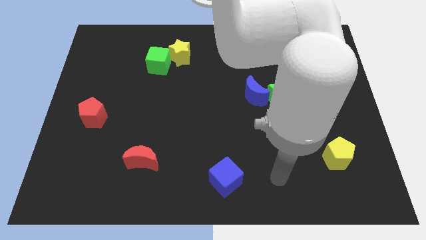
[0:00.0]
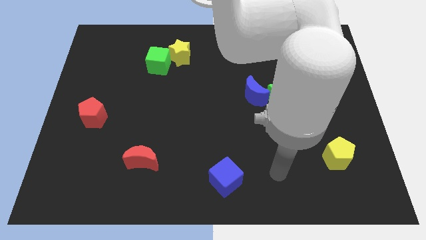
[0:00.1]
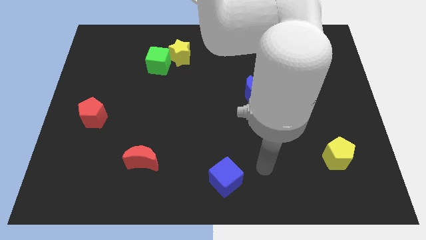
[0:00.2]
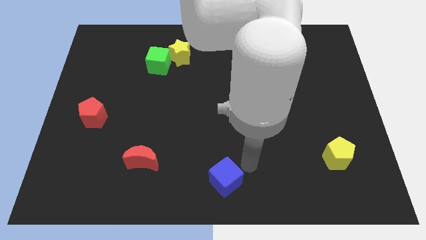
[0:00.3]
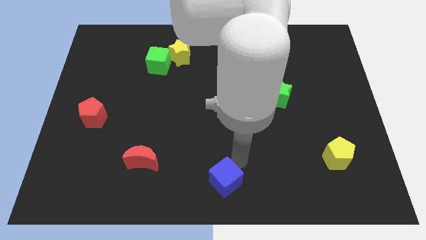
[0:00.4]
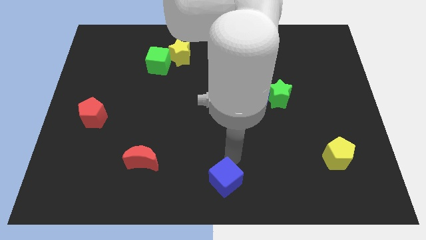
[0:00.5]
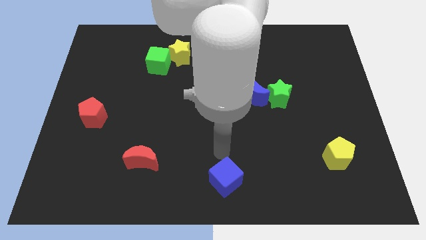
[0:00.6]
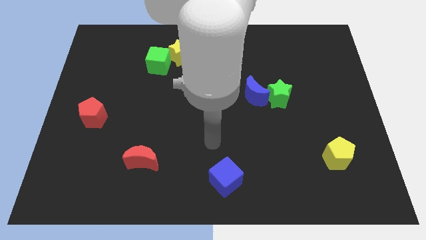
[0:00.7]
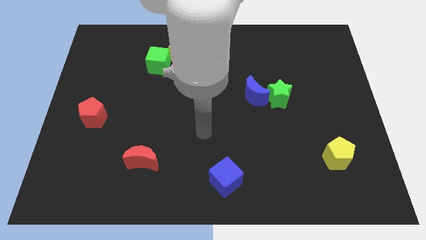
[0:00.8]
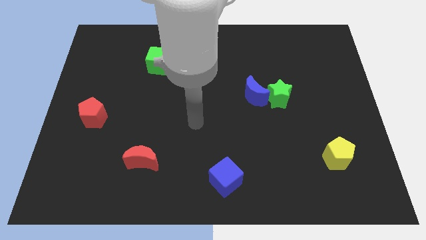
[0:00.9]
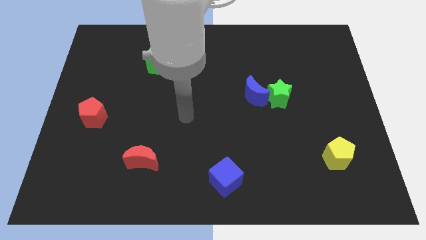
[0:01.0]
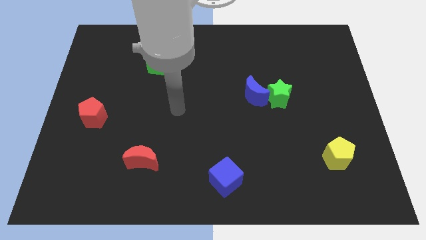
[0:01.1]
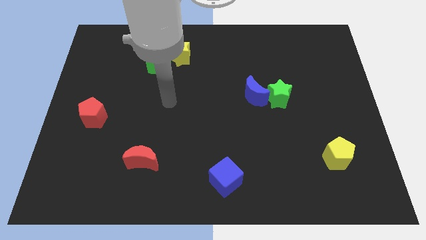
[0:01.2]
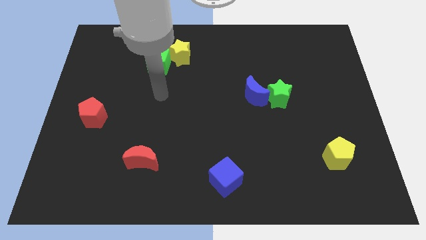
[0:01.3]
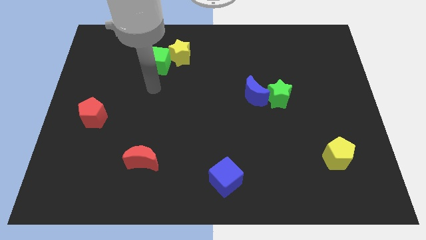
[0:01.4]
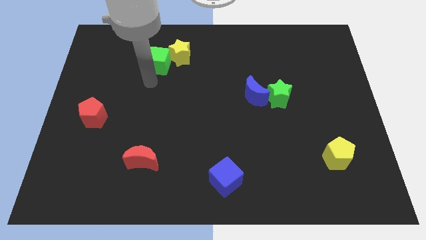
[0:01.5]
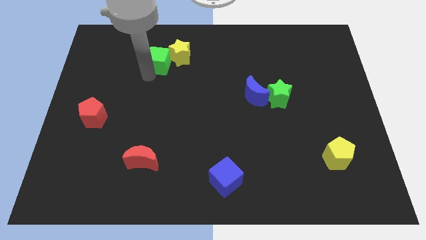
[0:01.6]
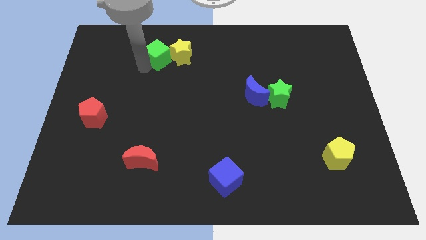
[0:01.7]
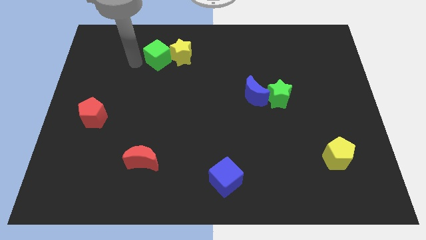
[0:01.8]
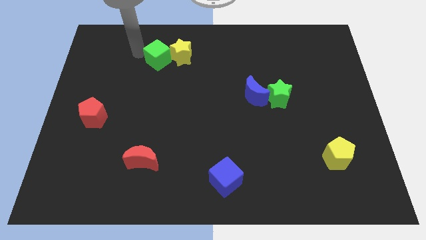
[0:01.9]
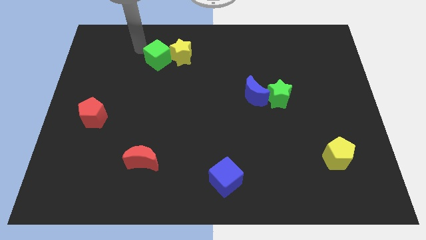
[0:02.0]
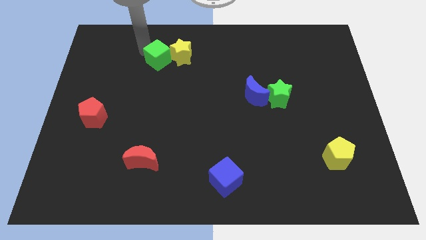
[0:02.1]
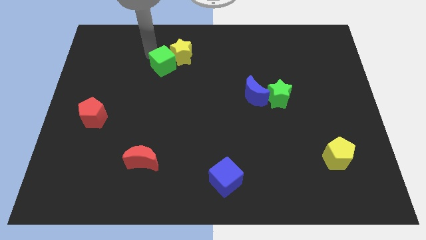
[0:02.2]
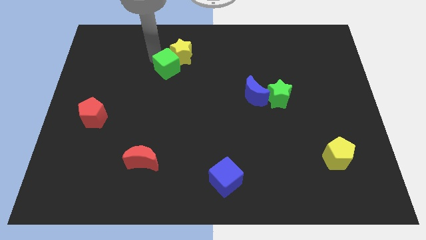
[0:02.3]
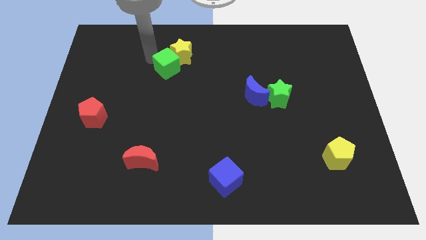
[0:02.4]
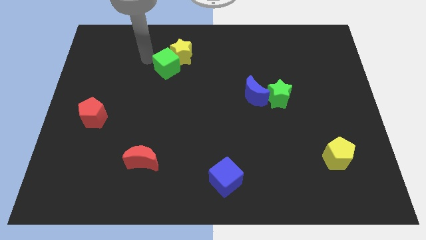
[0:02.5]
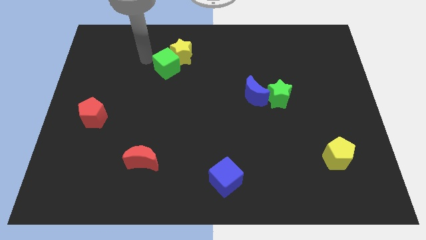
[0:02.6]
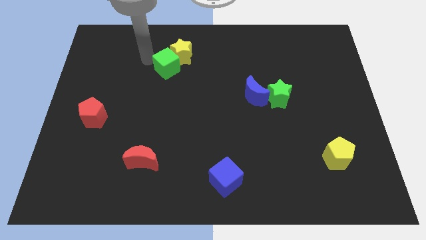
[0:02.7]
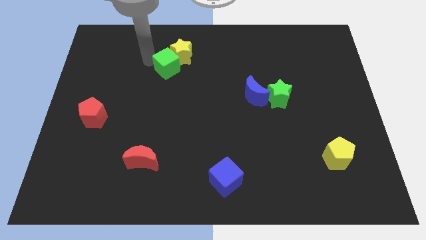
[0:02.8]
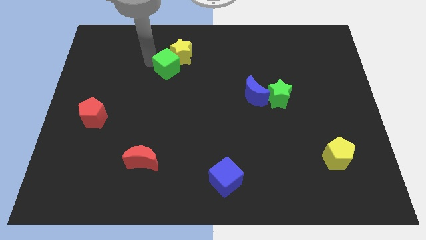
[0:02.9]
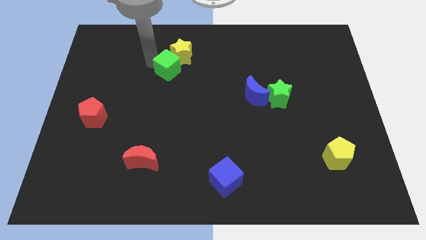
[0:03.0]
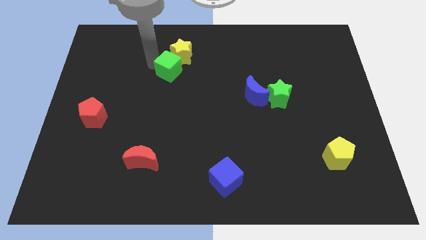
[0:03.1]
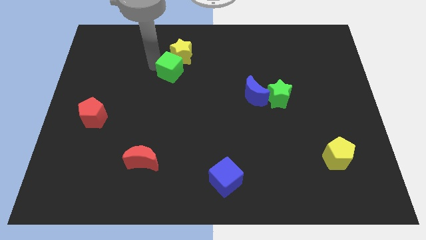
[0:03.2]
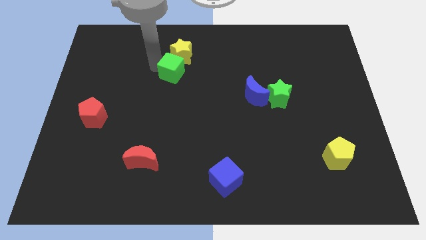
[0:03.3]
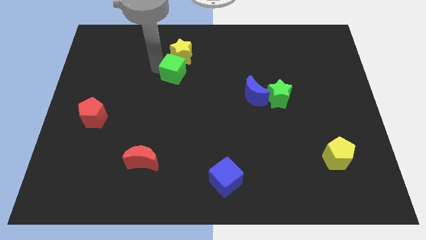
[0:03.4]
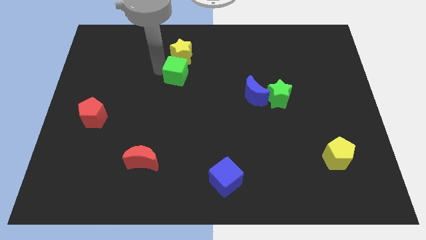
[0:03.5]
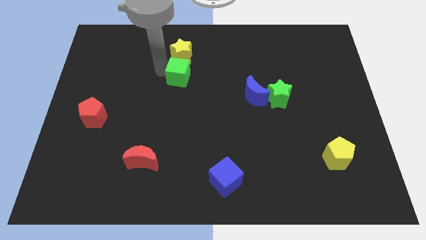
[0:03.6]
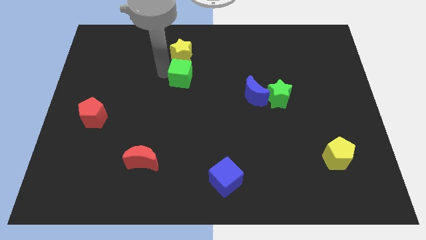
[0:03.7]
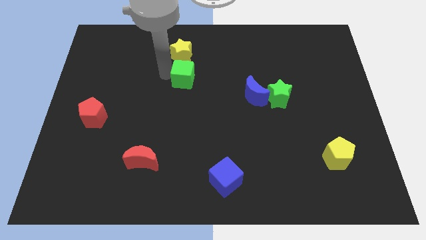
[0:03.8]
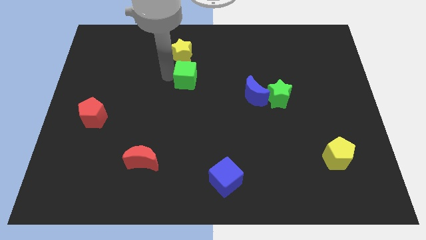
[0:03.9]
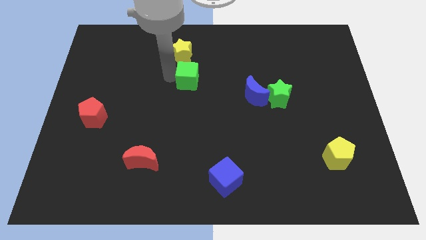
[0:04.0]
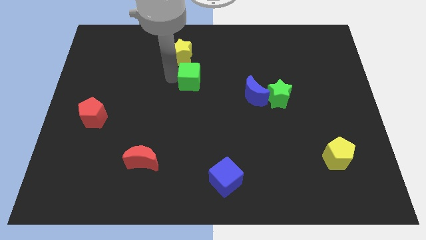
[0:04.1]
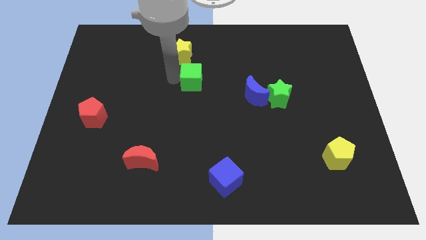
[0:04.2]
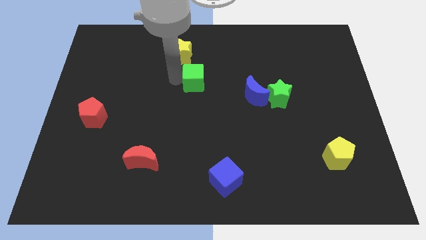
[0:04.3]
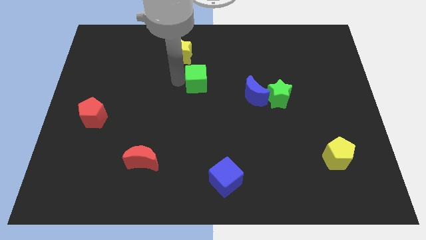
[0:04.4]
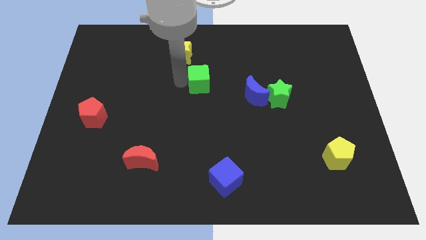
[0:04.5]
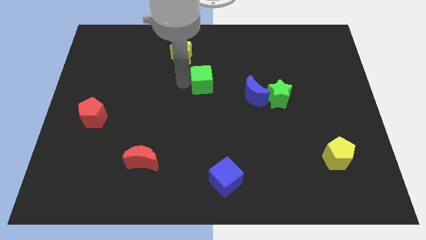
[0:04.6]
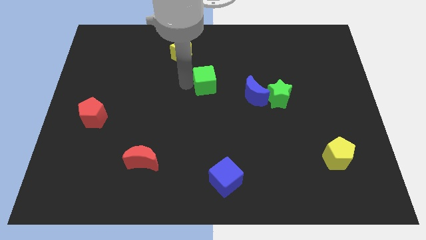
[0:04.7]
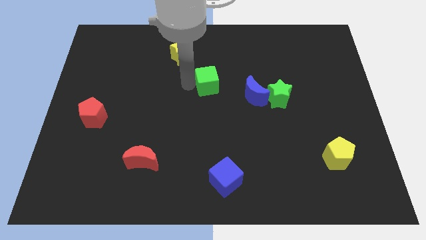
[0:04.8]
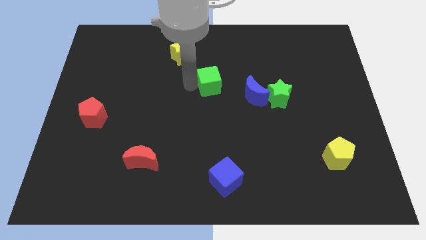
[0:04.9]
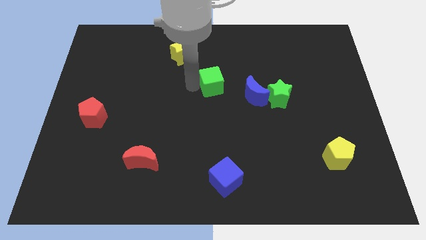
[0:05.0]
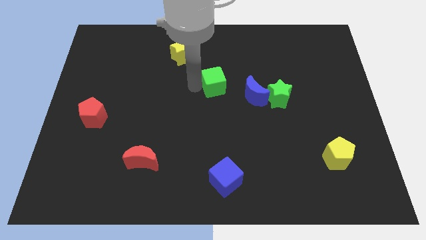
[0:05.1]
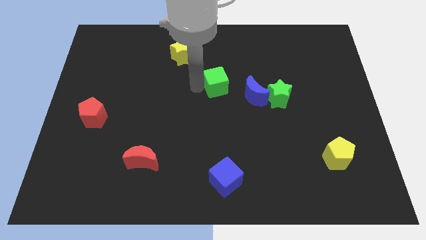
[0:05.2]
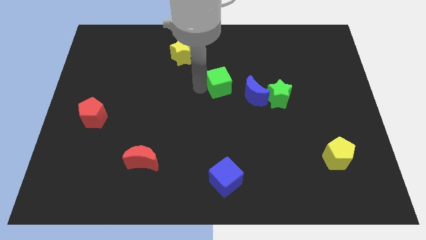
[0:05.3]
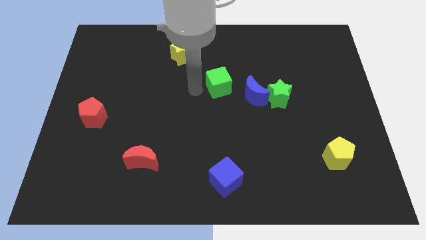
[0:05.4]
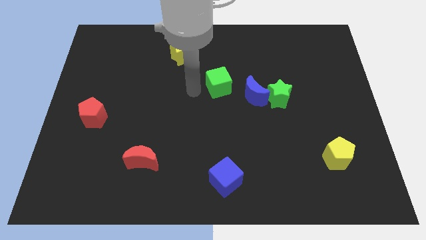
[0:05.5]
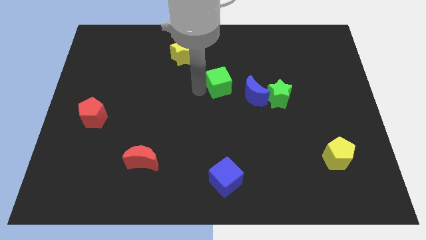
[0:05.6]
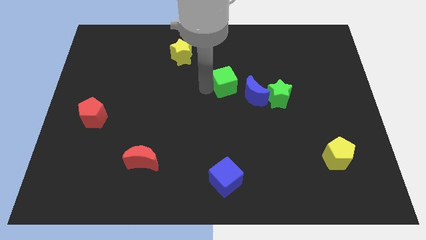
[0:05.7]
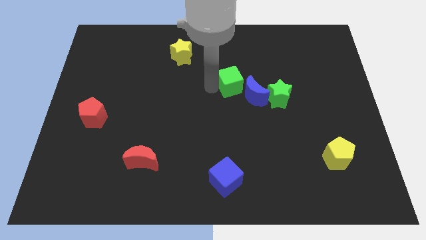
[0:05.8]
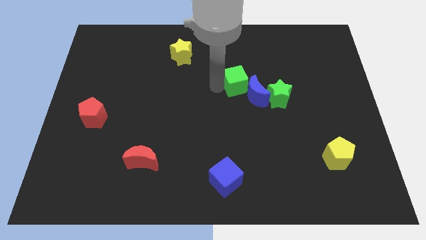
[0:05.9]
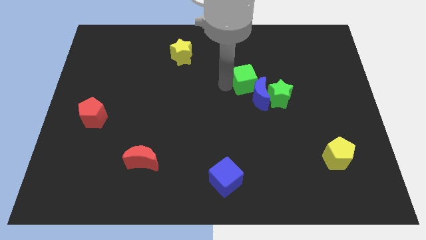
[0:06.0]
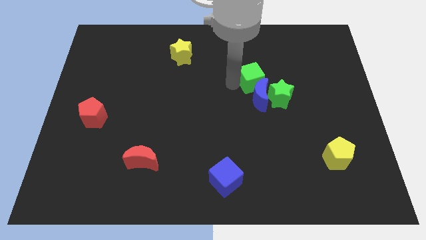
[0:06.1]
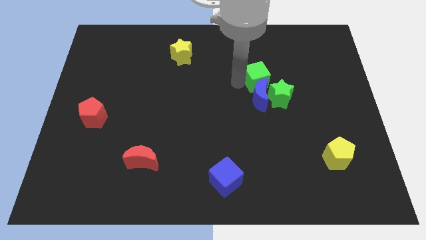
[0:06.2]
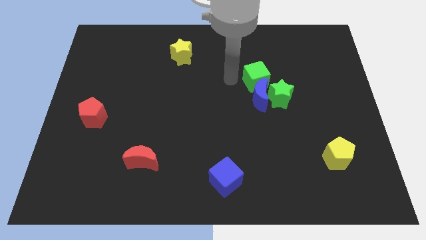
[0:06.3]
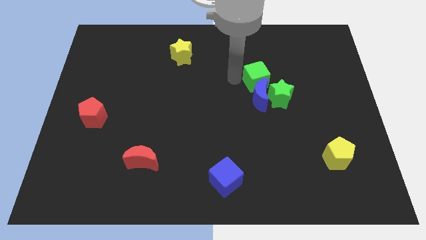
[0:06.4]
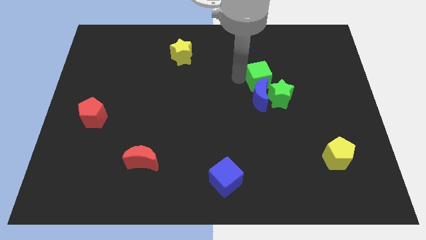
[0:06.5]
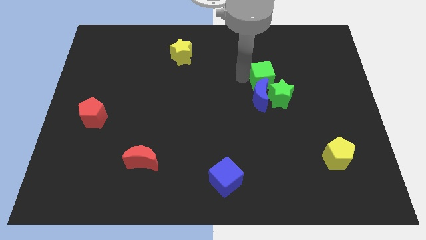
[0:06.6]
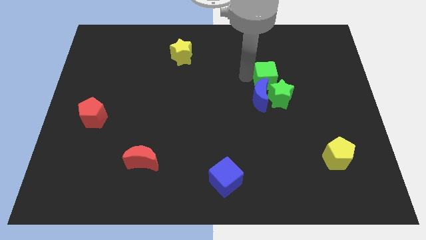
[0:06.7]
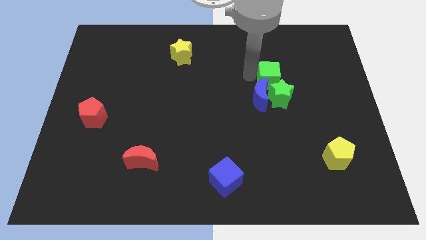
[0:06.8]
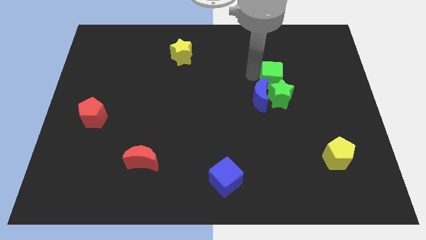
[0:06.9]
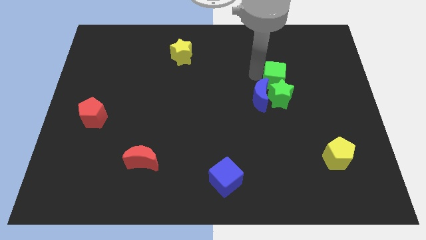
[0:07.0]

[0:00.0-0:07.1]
push the green cube to the top right of the green star
